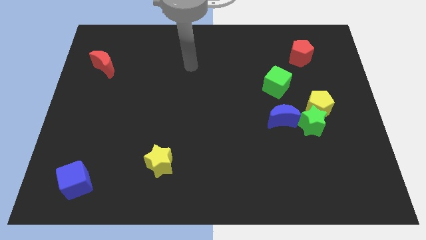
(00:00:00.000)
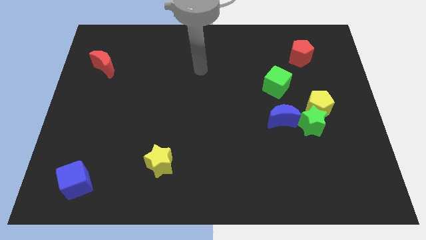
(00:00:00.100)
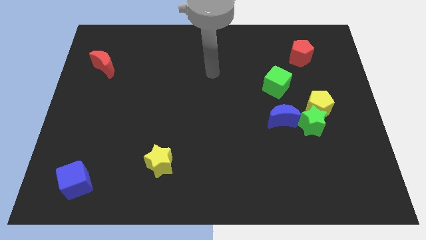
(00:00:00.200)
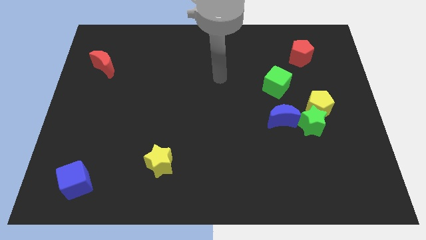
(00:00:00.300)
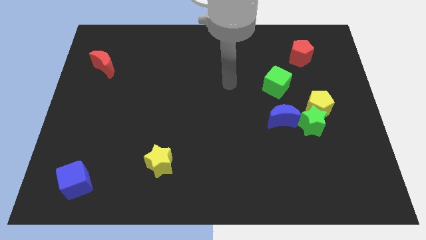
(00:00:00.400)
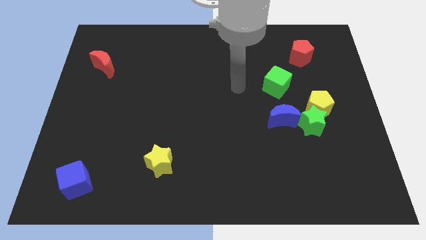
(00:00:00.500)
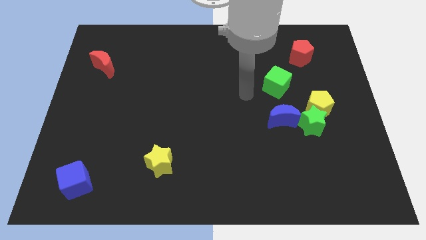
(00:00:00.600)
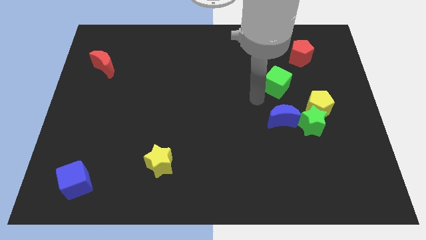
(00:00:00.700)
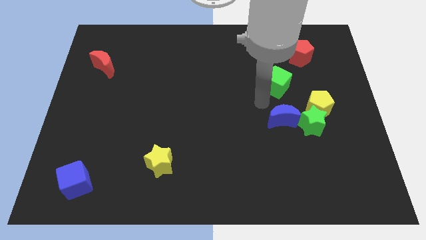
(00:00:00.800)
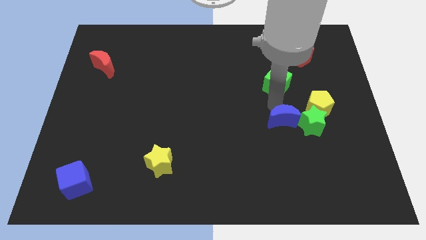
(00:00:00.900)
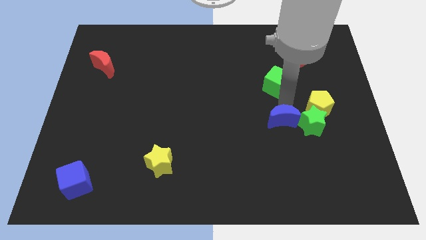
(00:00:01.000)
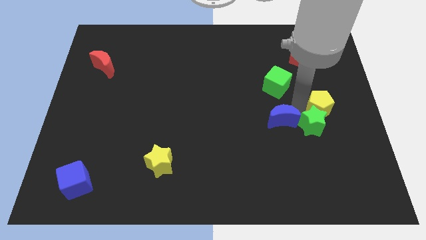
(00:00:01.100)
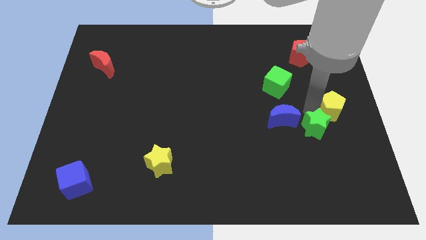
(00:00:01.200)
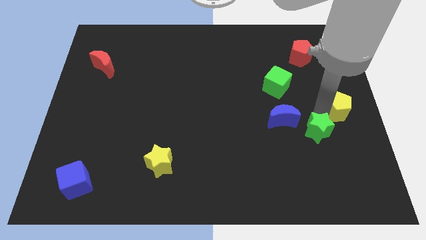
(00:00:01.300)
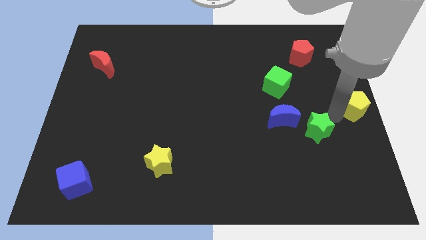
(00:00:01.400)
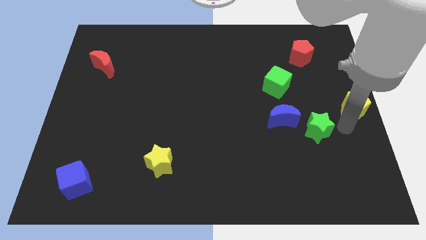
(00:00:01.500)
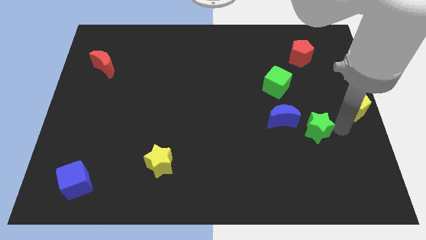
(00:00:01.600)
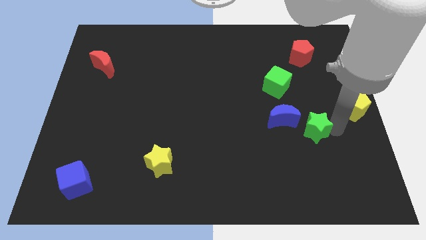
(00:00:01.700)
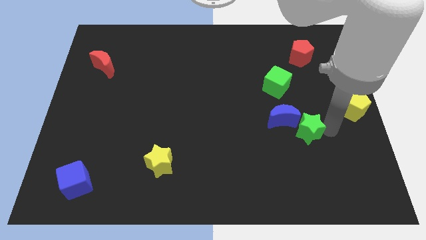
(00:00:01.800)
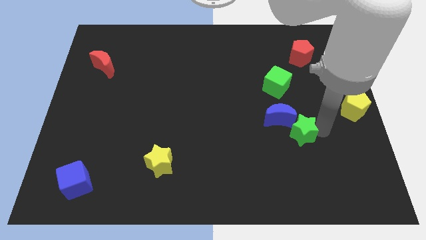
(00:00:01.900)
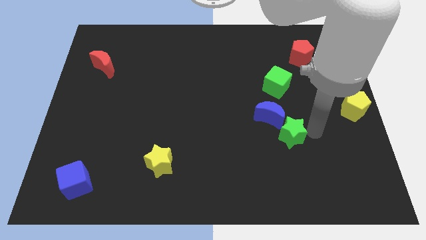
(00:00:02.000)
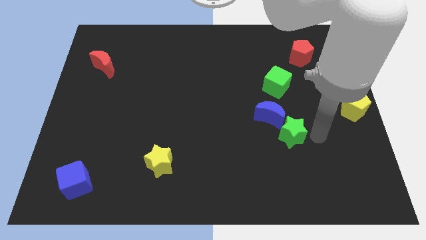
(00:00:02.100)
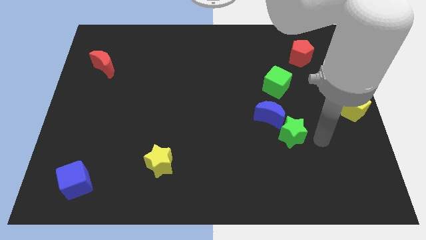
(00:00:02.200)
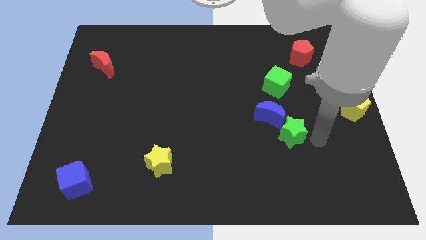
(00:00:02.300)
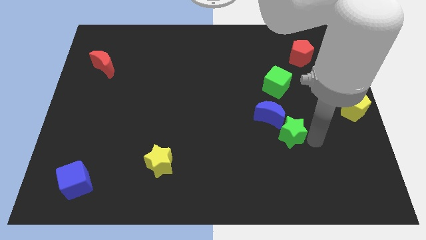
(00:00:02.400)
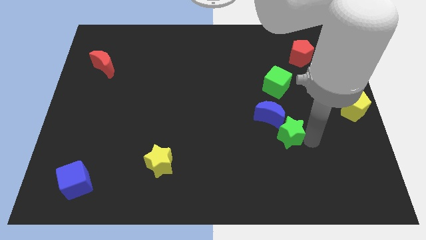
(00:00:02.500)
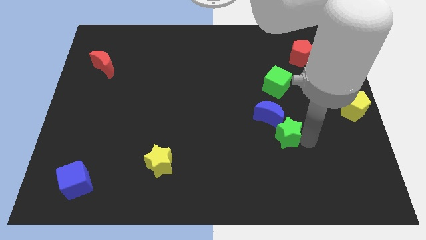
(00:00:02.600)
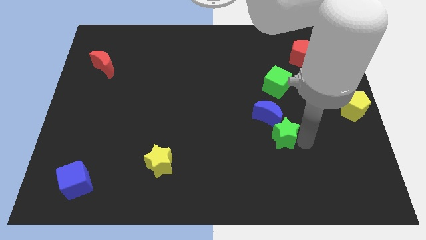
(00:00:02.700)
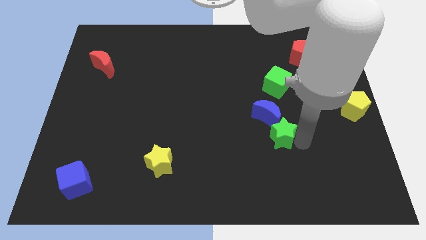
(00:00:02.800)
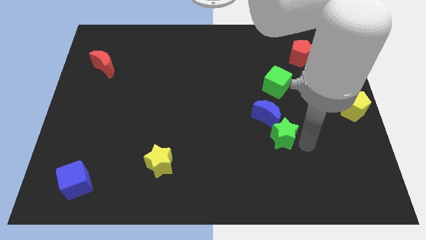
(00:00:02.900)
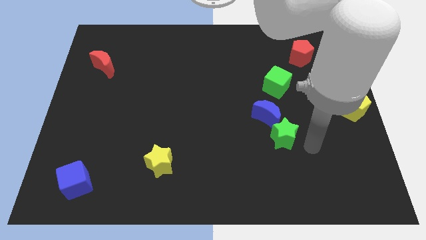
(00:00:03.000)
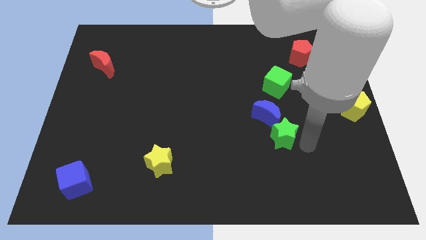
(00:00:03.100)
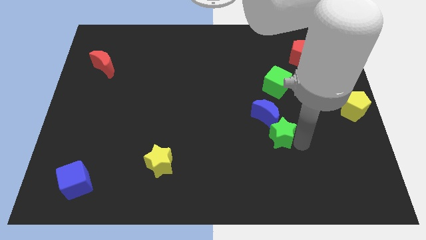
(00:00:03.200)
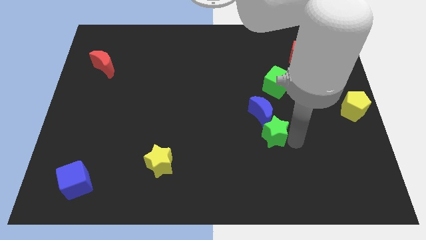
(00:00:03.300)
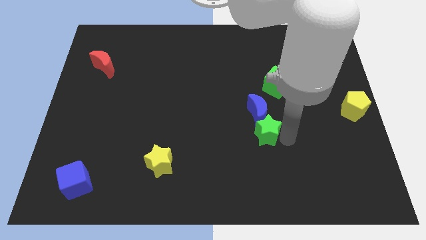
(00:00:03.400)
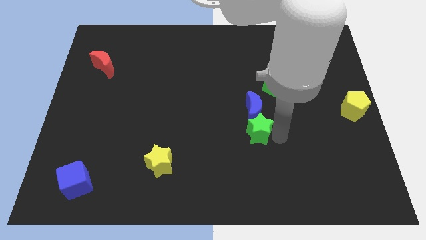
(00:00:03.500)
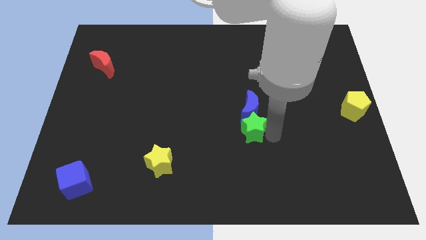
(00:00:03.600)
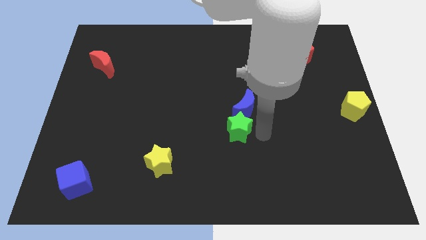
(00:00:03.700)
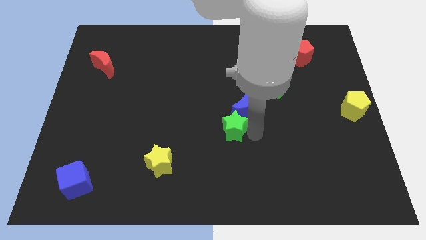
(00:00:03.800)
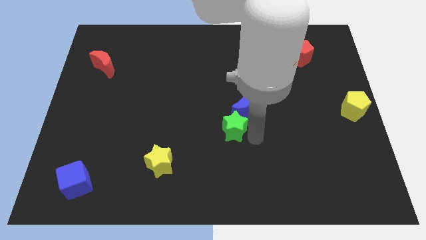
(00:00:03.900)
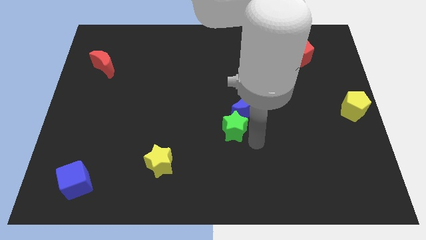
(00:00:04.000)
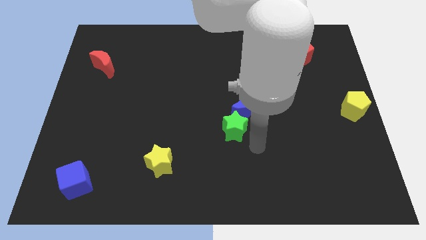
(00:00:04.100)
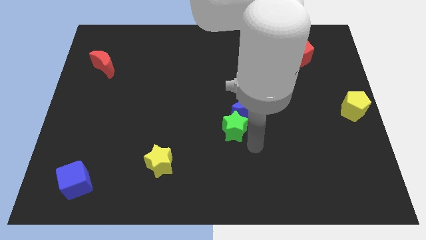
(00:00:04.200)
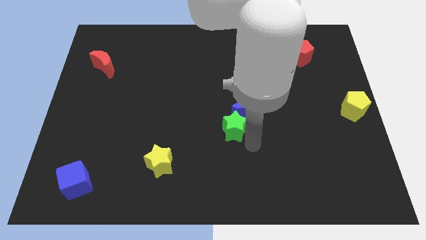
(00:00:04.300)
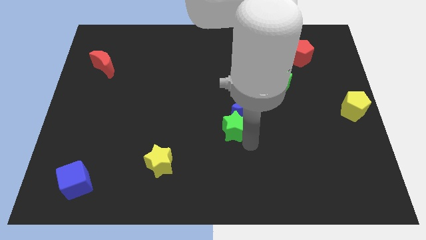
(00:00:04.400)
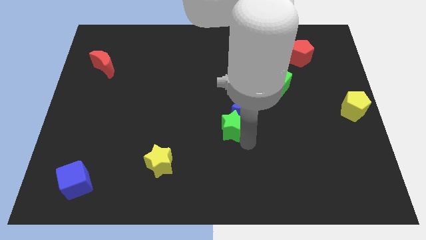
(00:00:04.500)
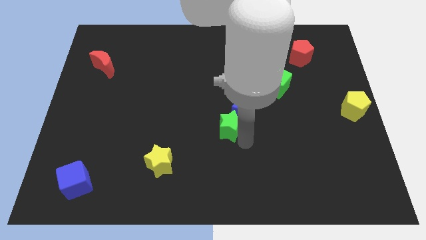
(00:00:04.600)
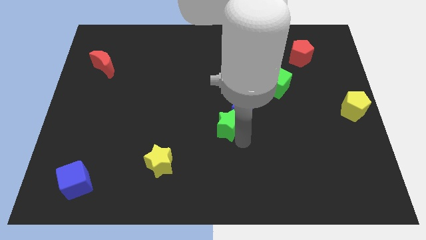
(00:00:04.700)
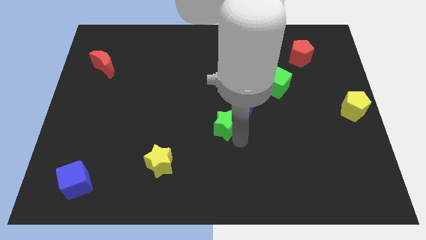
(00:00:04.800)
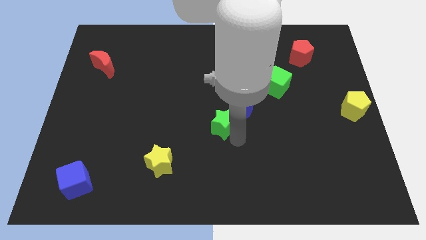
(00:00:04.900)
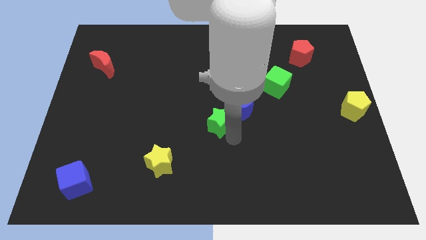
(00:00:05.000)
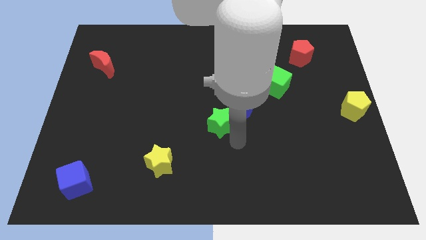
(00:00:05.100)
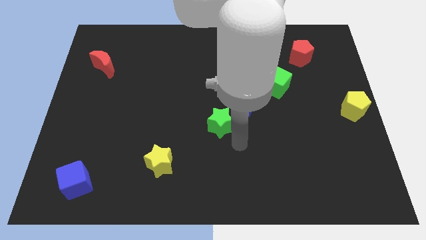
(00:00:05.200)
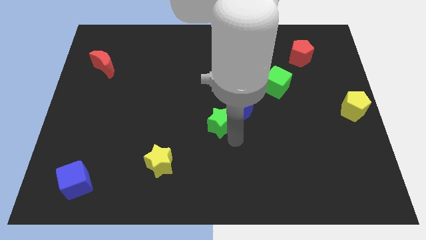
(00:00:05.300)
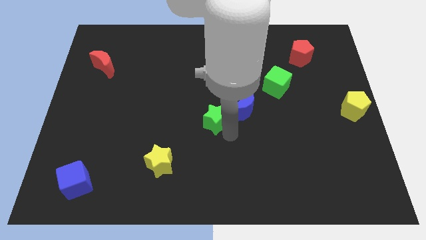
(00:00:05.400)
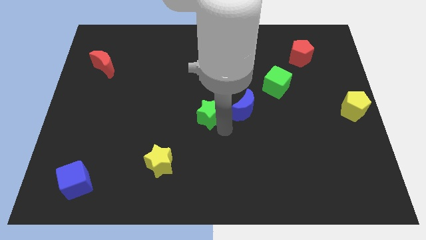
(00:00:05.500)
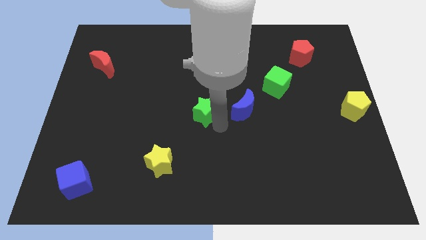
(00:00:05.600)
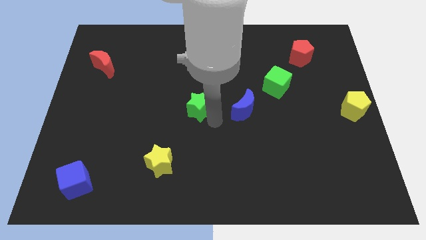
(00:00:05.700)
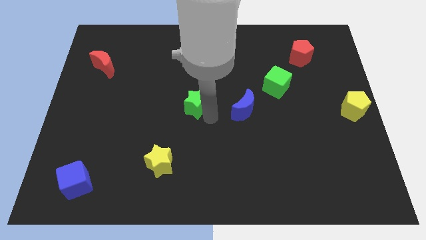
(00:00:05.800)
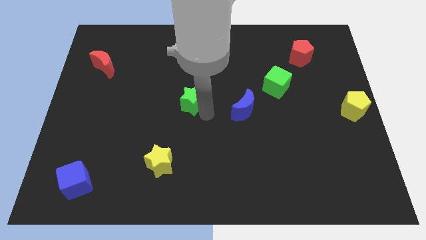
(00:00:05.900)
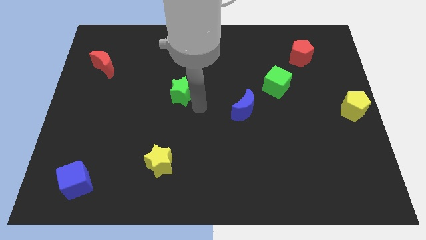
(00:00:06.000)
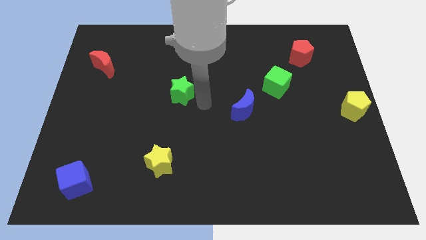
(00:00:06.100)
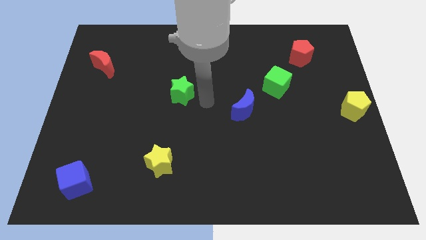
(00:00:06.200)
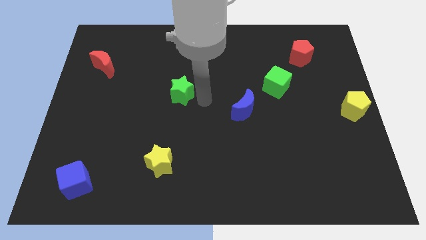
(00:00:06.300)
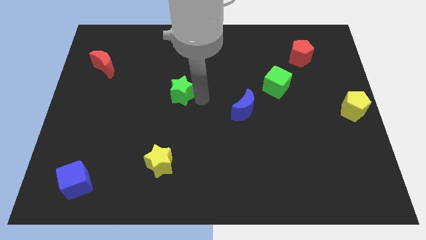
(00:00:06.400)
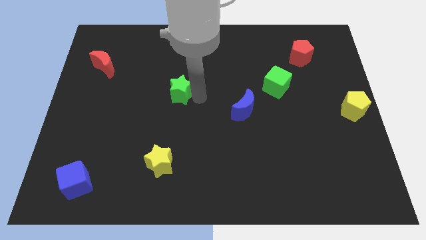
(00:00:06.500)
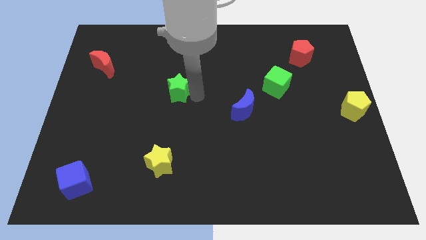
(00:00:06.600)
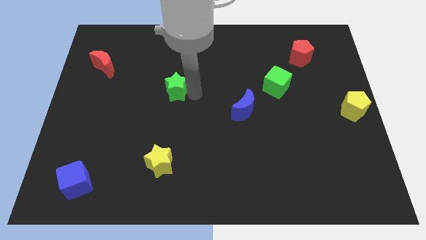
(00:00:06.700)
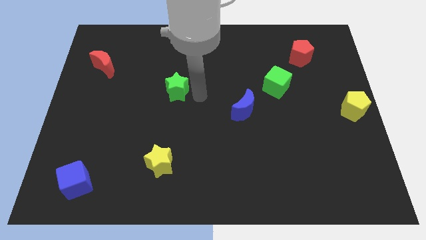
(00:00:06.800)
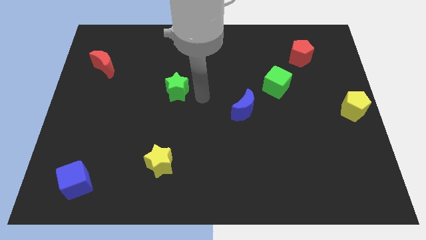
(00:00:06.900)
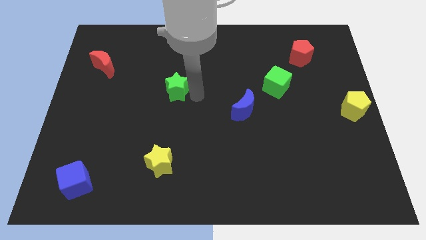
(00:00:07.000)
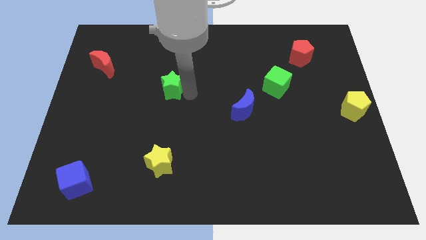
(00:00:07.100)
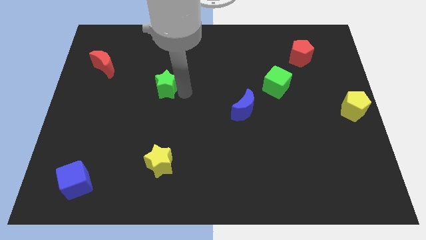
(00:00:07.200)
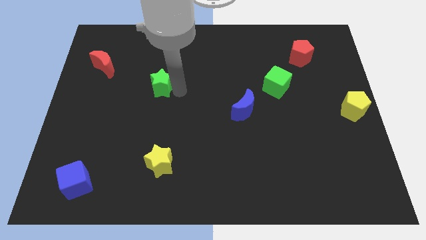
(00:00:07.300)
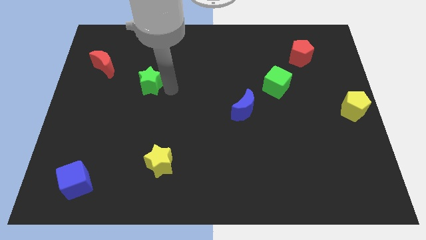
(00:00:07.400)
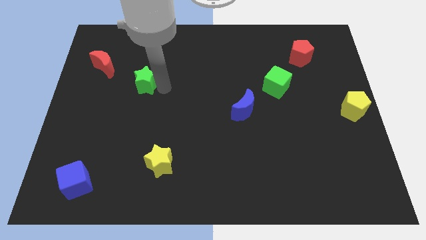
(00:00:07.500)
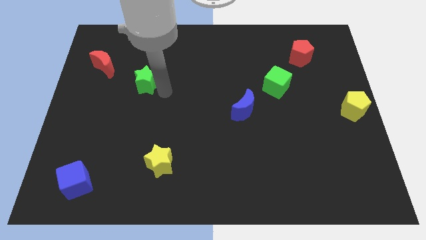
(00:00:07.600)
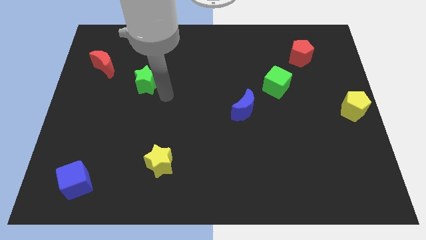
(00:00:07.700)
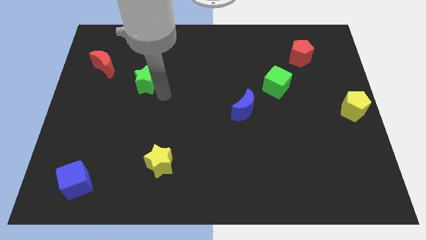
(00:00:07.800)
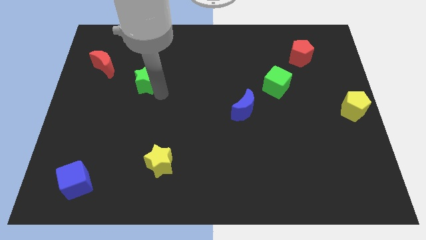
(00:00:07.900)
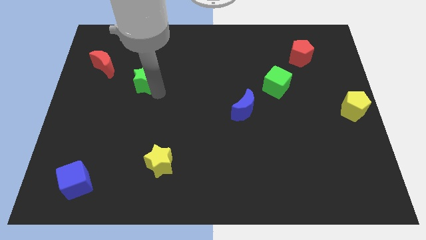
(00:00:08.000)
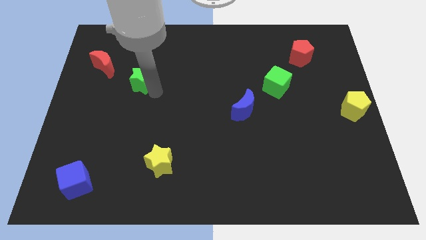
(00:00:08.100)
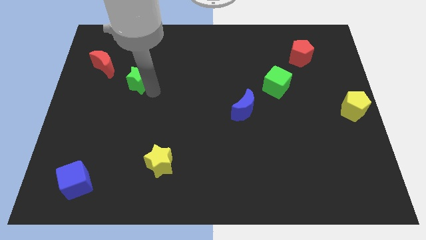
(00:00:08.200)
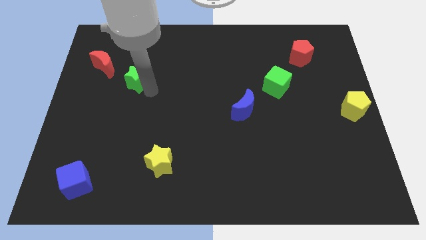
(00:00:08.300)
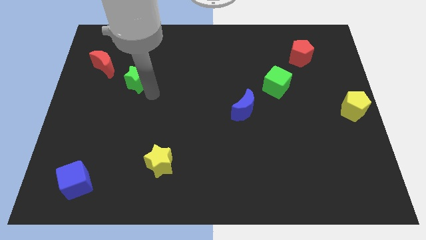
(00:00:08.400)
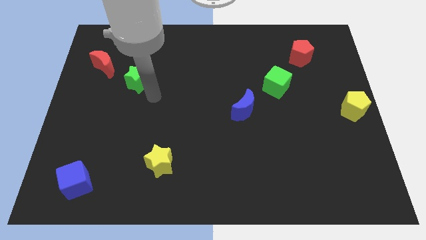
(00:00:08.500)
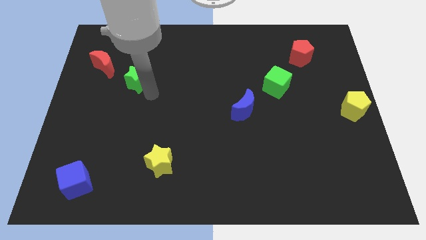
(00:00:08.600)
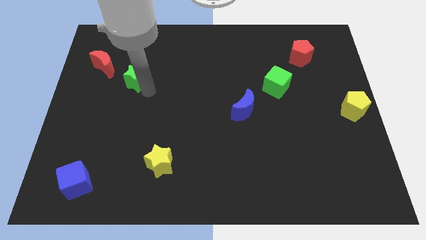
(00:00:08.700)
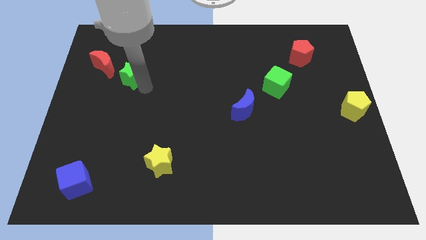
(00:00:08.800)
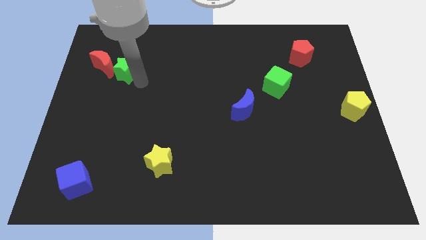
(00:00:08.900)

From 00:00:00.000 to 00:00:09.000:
move the green star to the red moon
